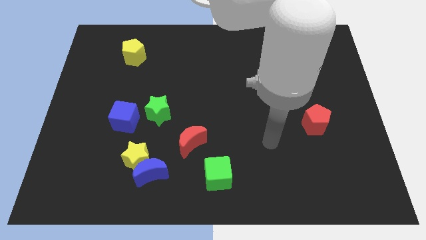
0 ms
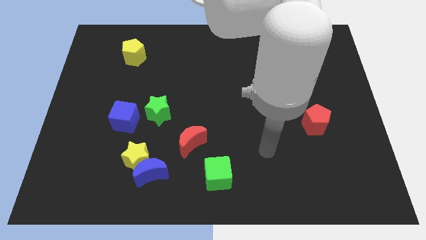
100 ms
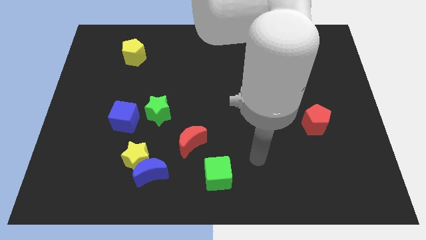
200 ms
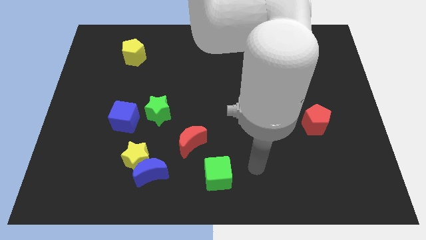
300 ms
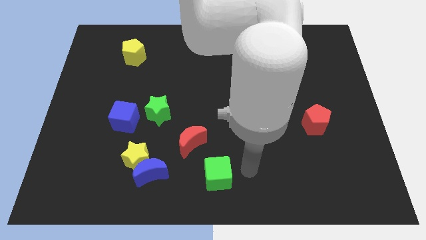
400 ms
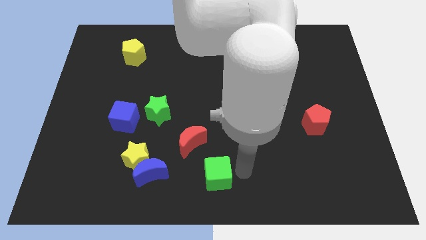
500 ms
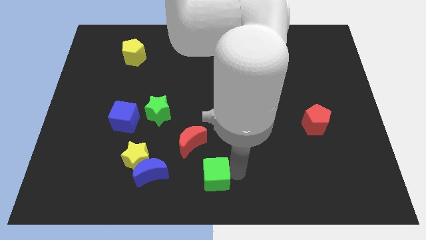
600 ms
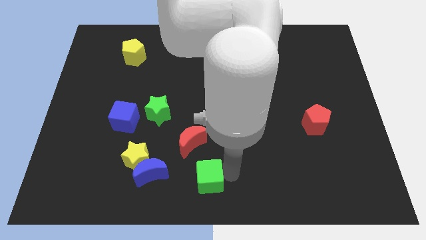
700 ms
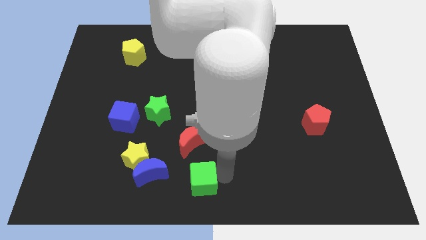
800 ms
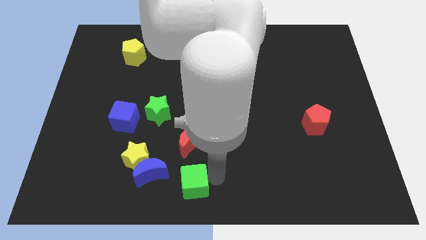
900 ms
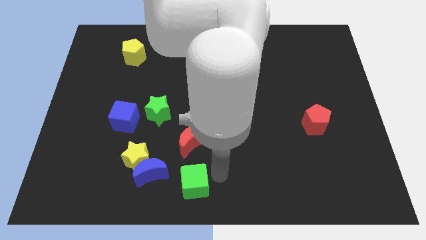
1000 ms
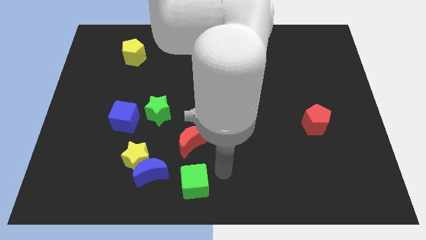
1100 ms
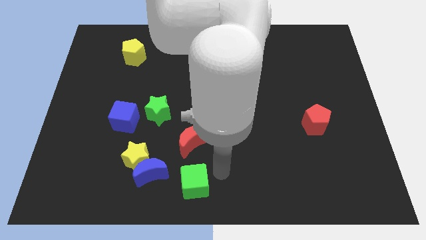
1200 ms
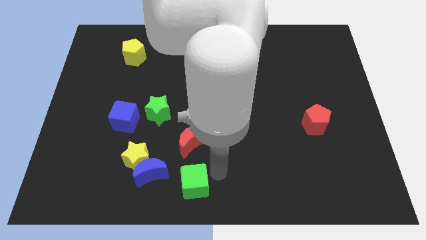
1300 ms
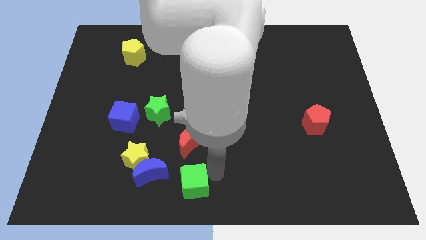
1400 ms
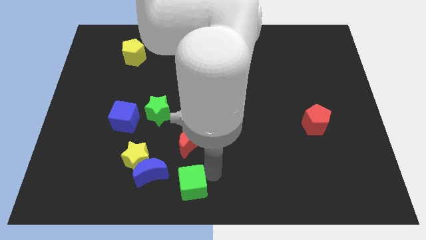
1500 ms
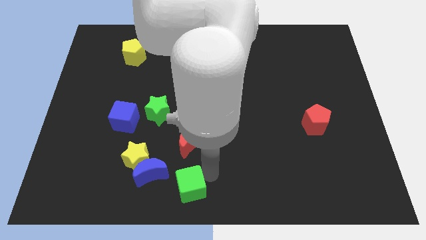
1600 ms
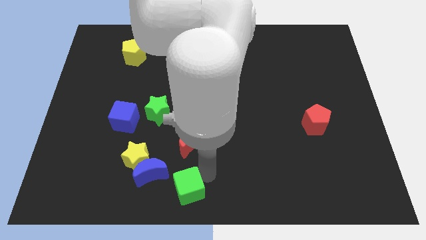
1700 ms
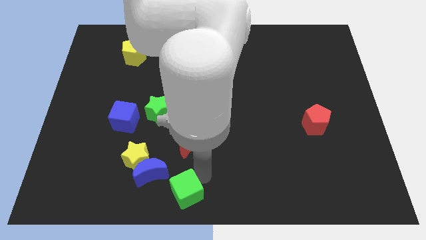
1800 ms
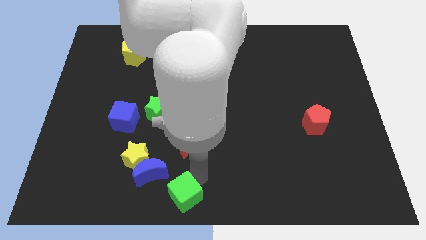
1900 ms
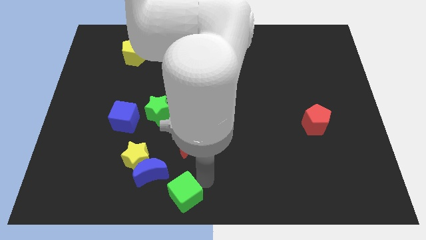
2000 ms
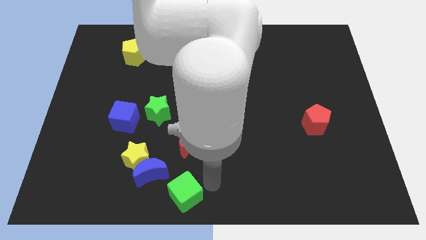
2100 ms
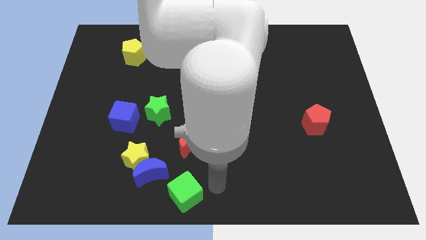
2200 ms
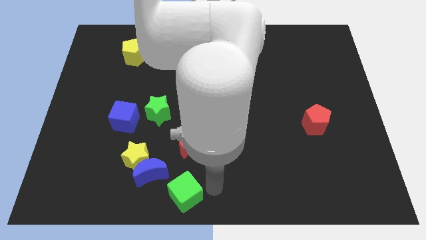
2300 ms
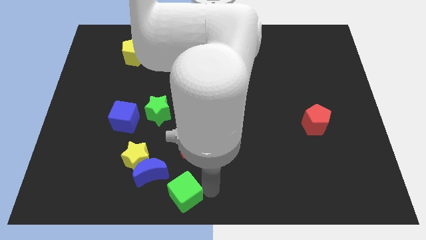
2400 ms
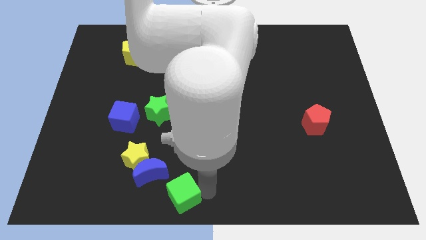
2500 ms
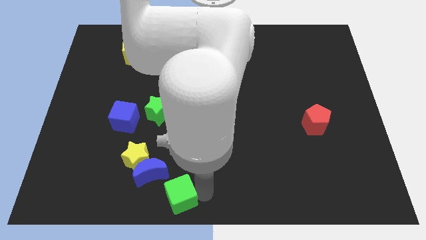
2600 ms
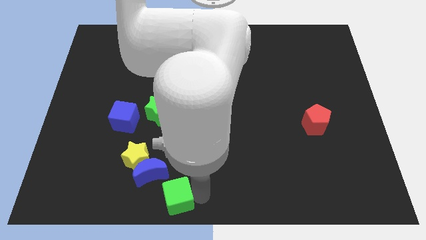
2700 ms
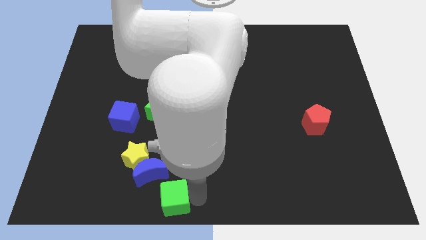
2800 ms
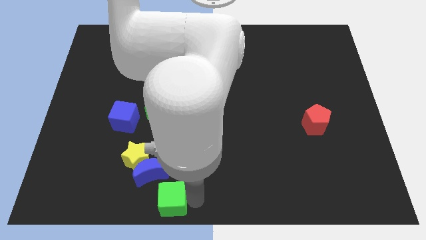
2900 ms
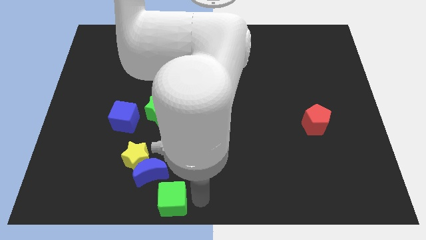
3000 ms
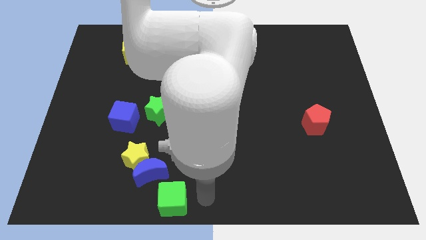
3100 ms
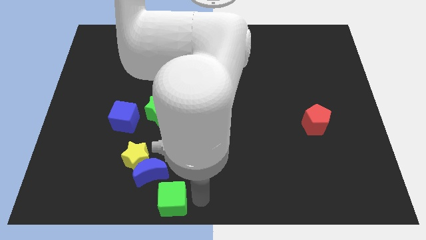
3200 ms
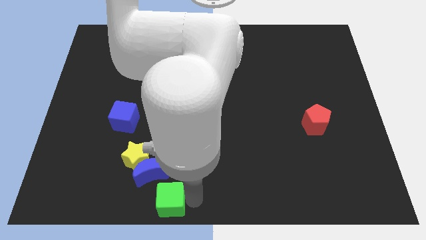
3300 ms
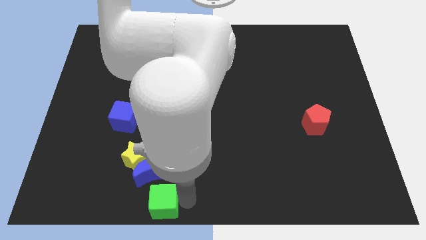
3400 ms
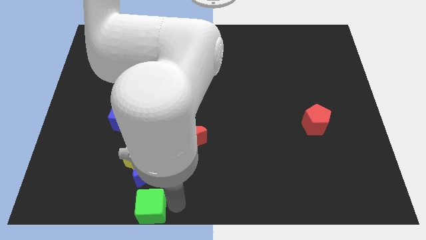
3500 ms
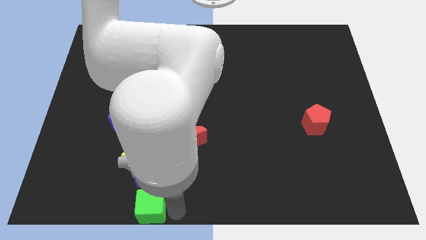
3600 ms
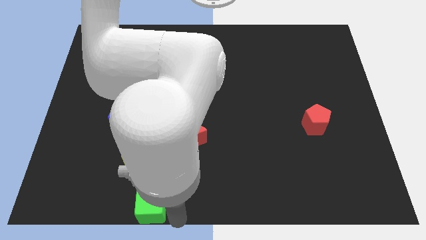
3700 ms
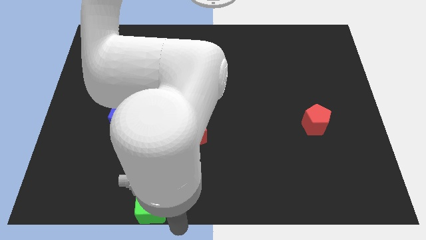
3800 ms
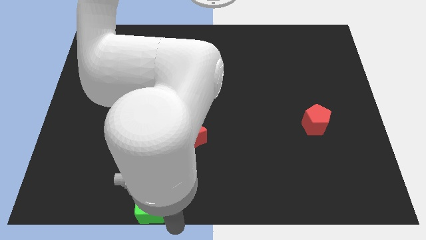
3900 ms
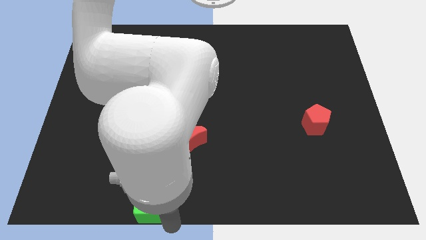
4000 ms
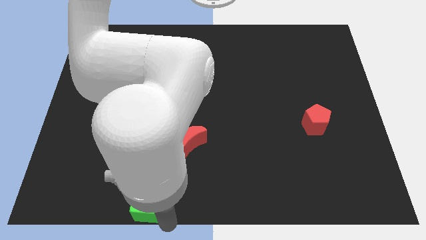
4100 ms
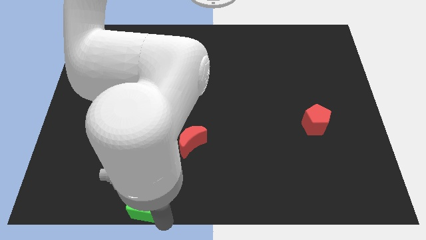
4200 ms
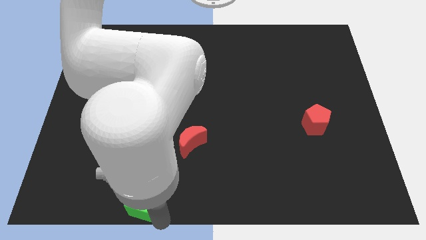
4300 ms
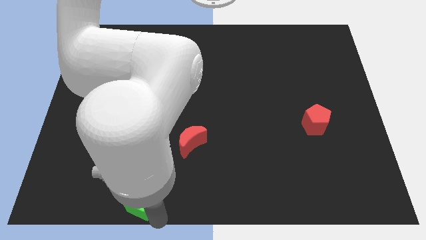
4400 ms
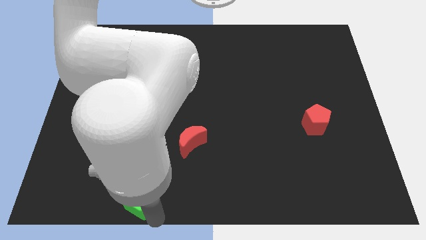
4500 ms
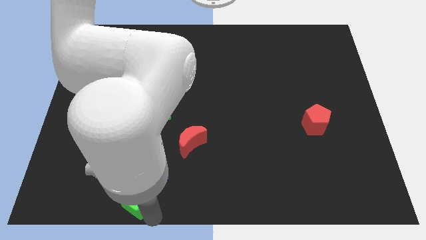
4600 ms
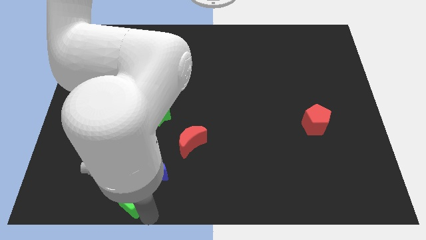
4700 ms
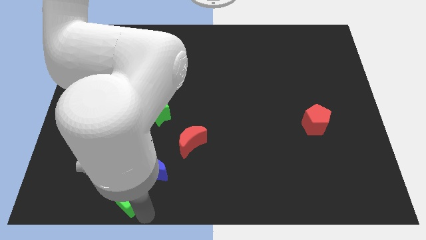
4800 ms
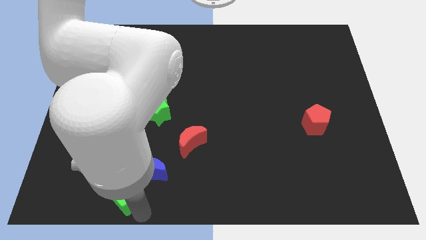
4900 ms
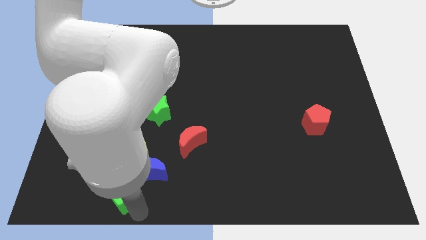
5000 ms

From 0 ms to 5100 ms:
put the green cube just left of the blue moon

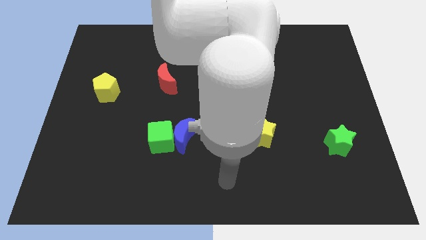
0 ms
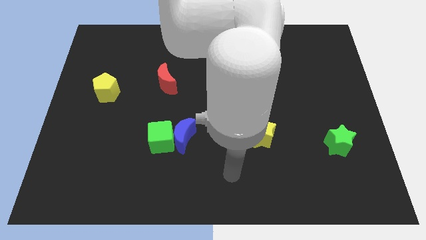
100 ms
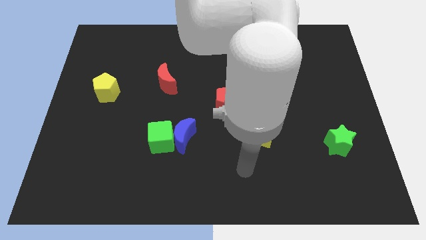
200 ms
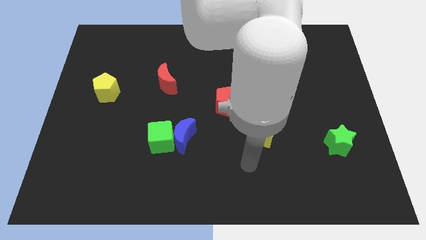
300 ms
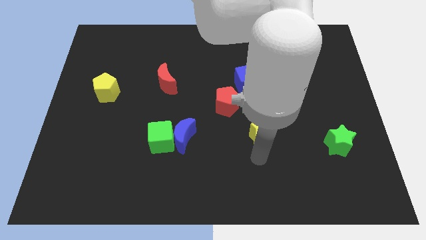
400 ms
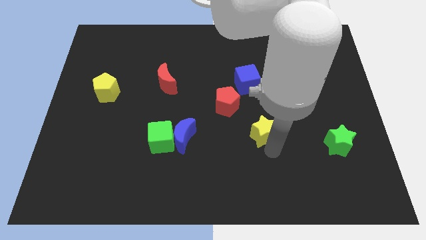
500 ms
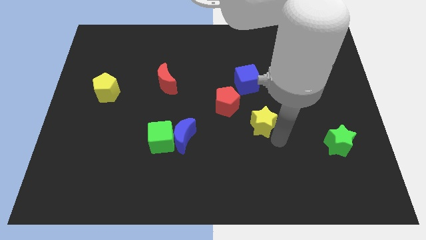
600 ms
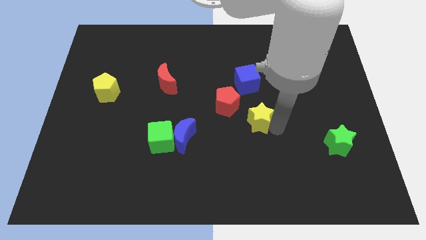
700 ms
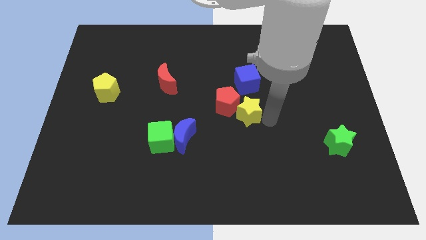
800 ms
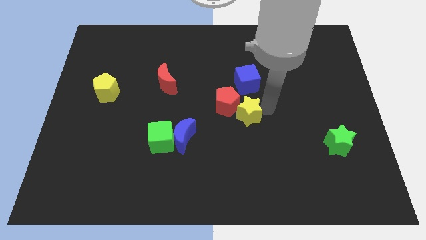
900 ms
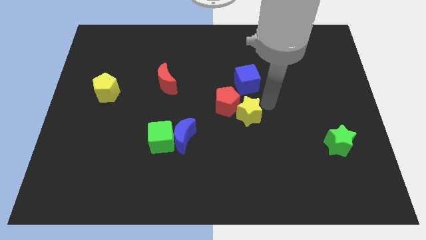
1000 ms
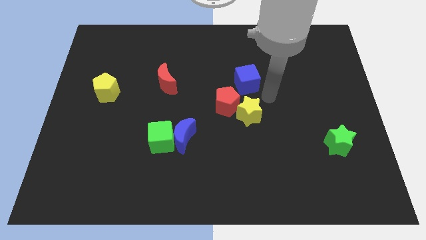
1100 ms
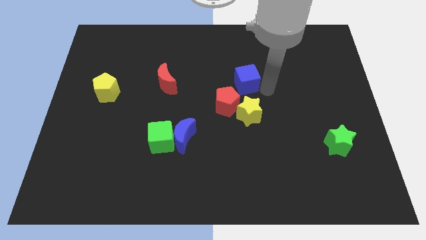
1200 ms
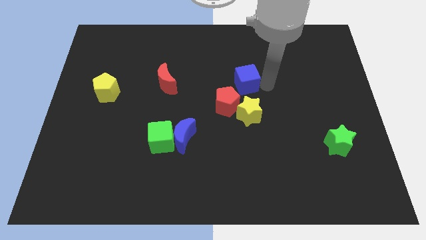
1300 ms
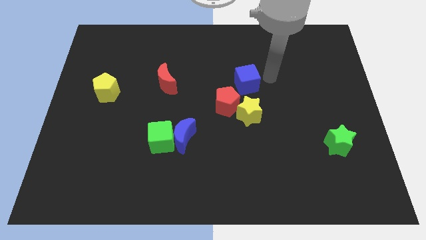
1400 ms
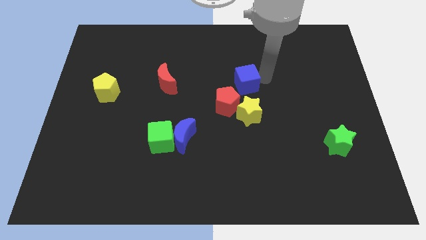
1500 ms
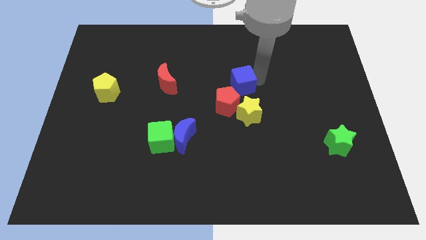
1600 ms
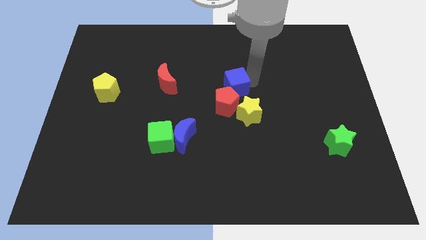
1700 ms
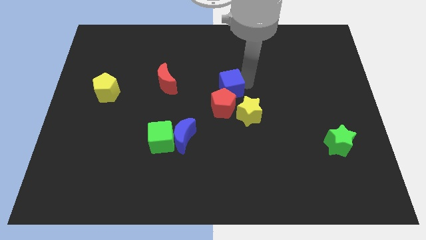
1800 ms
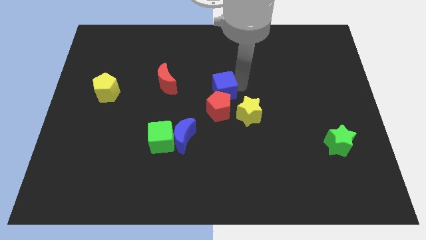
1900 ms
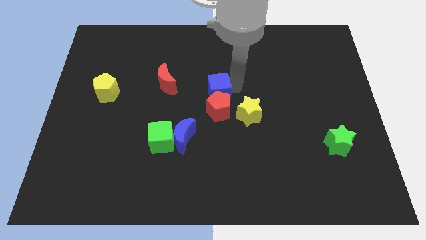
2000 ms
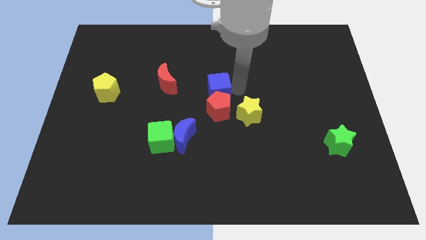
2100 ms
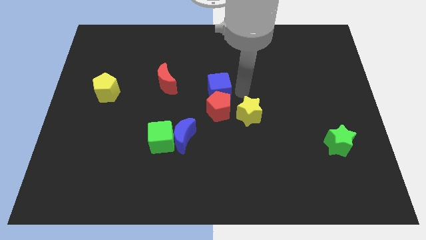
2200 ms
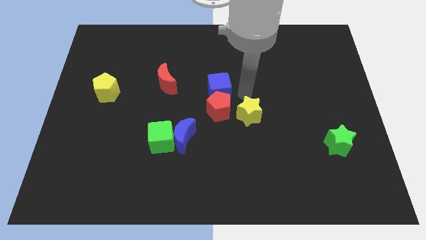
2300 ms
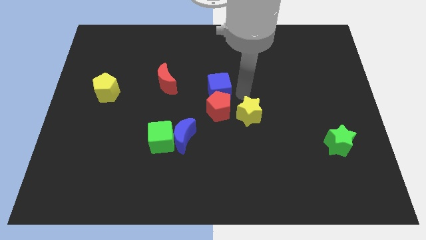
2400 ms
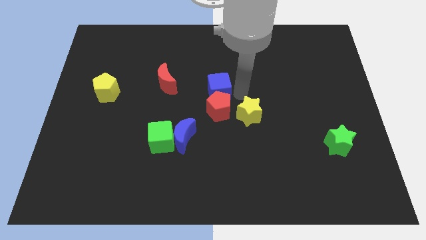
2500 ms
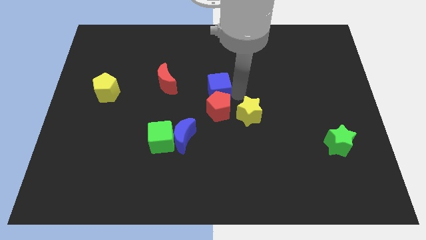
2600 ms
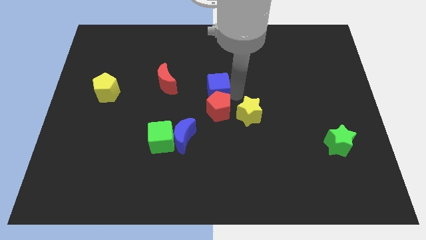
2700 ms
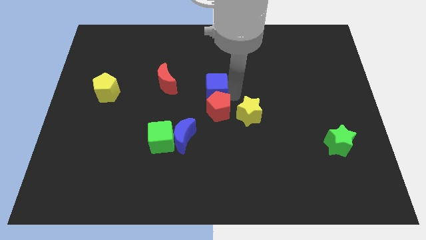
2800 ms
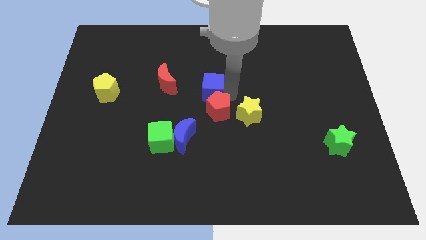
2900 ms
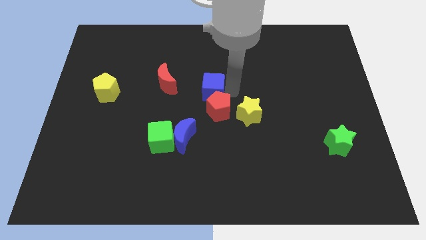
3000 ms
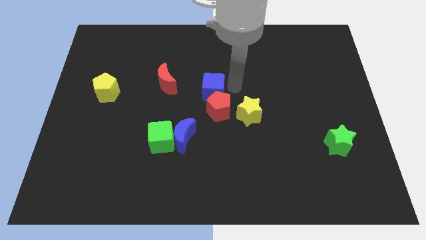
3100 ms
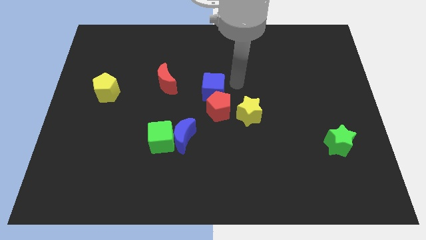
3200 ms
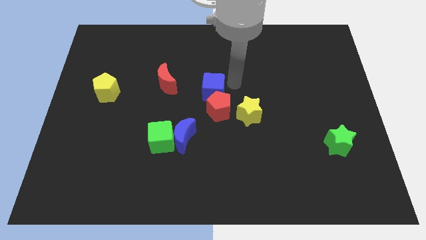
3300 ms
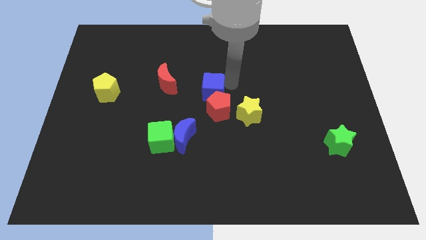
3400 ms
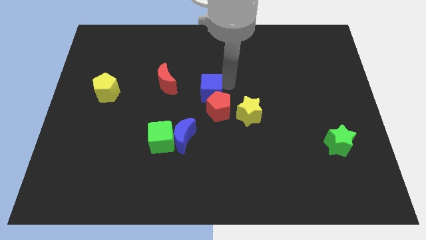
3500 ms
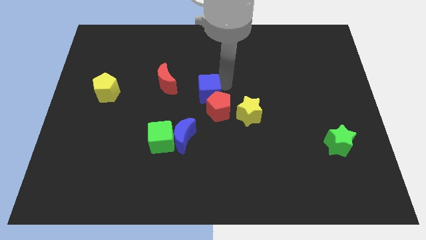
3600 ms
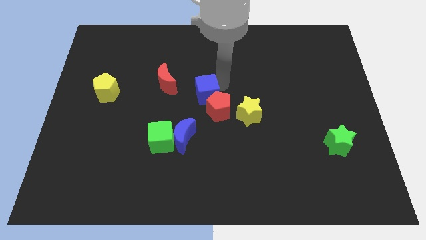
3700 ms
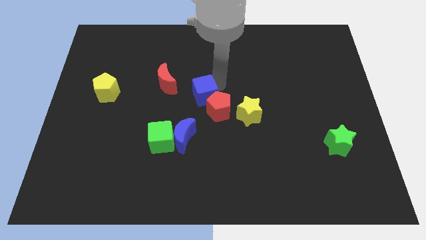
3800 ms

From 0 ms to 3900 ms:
slide the blue cube to the bottom right of the red moon
